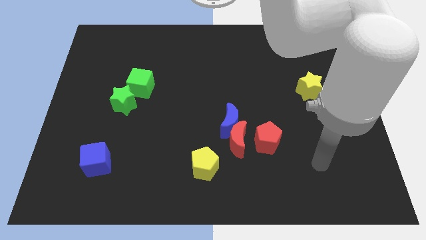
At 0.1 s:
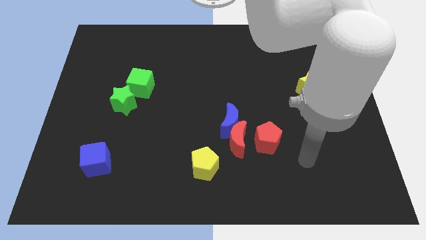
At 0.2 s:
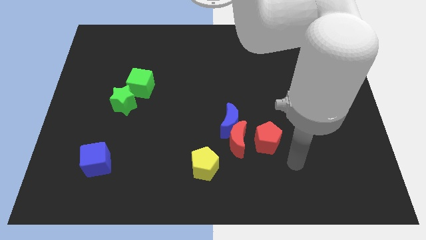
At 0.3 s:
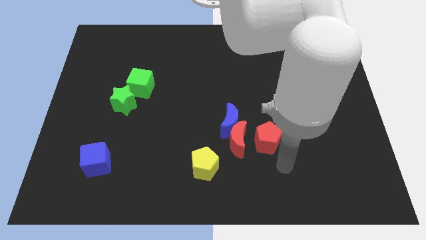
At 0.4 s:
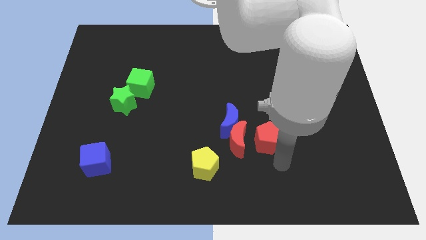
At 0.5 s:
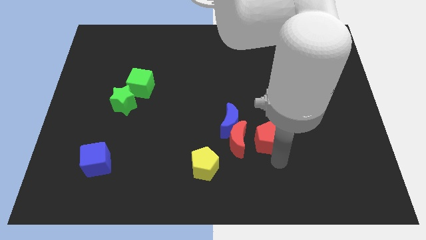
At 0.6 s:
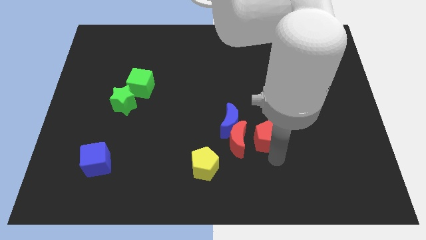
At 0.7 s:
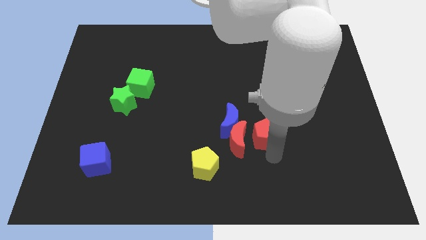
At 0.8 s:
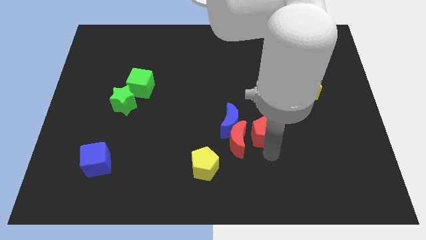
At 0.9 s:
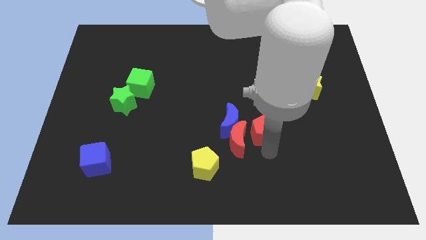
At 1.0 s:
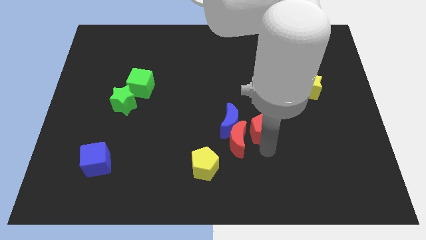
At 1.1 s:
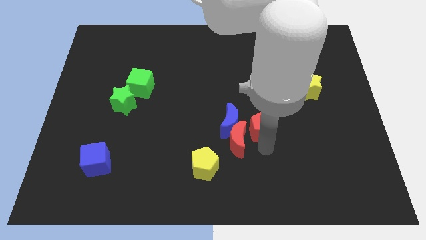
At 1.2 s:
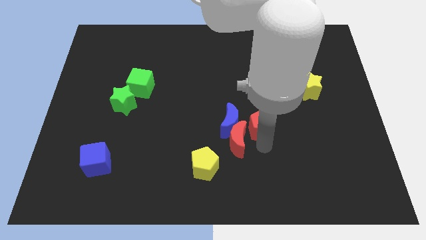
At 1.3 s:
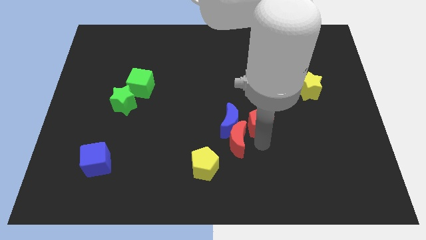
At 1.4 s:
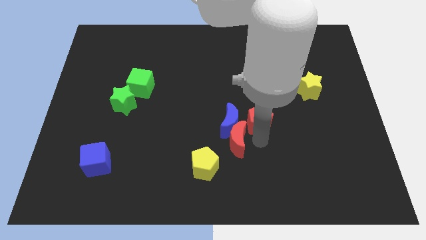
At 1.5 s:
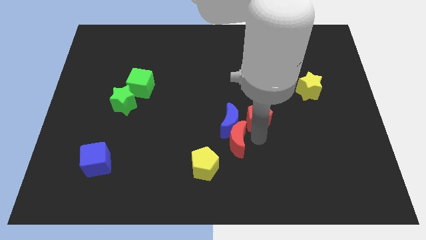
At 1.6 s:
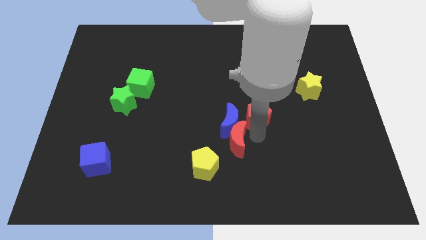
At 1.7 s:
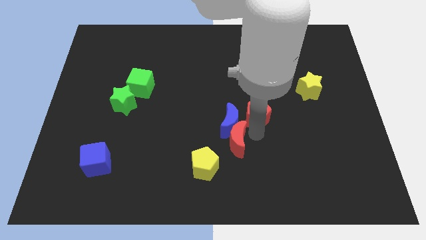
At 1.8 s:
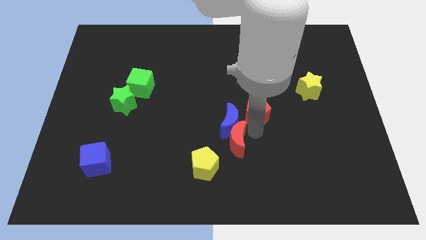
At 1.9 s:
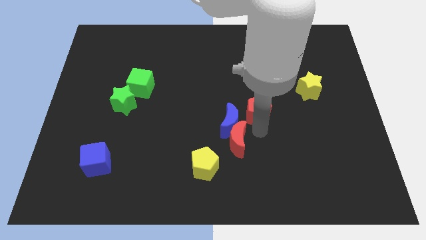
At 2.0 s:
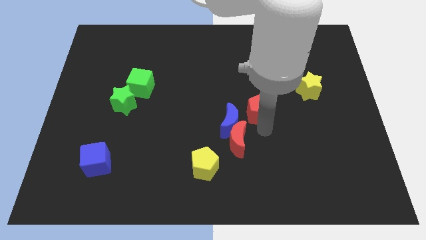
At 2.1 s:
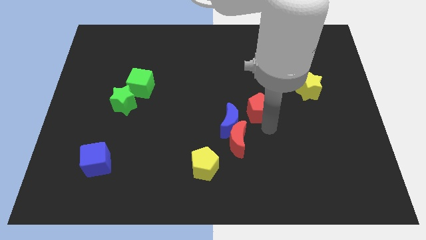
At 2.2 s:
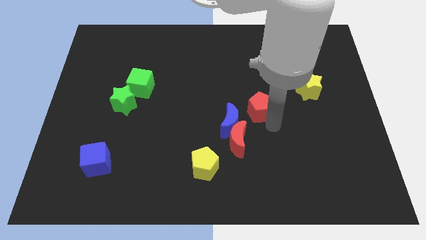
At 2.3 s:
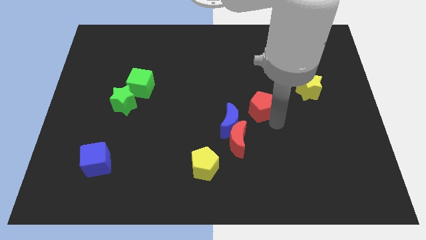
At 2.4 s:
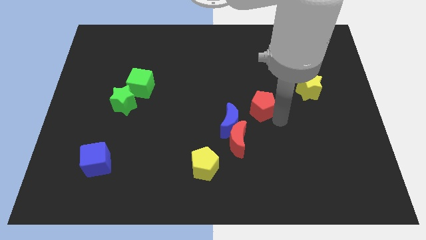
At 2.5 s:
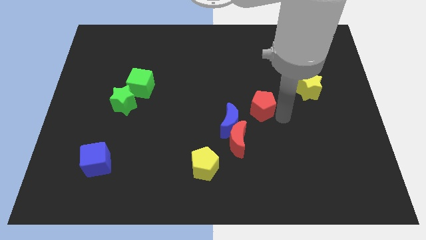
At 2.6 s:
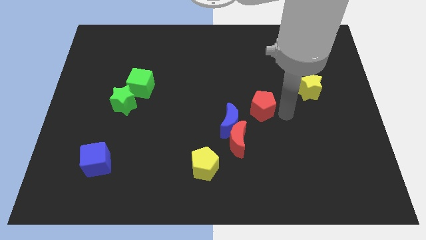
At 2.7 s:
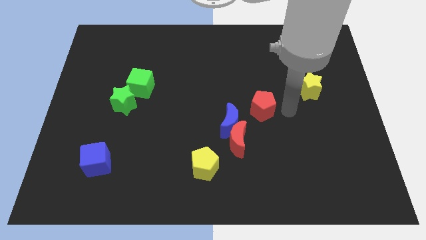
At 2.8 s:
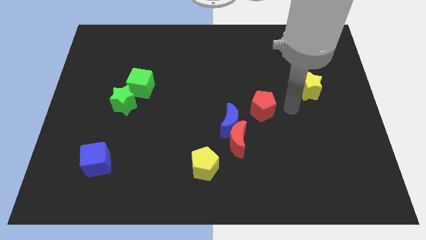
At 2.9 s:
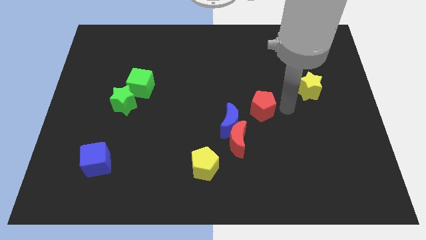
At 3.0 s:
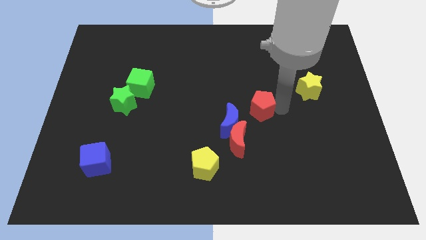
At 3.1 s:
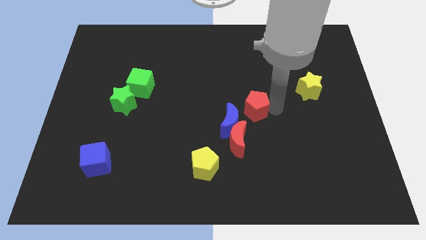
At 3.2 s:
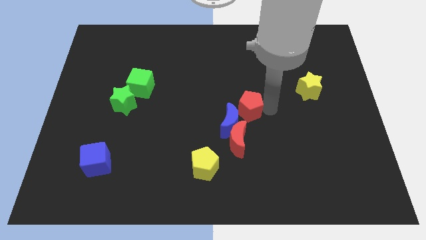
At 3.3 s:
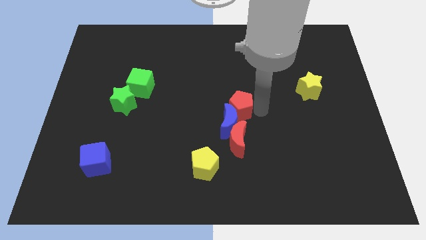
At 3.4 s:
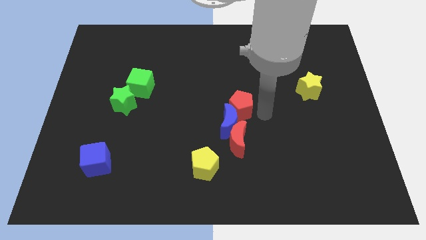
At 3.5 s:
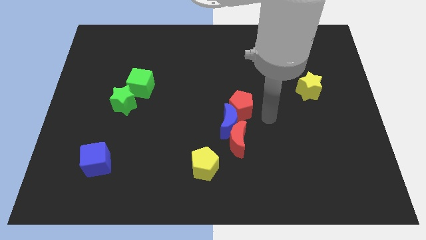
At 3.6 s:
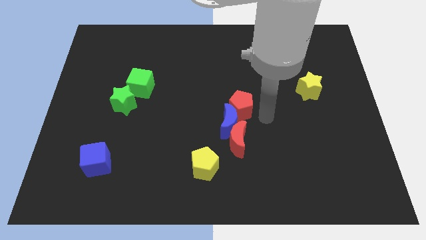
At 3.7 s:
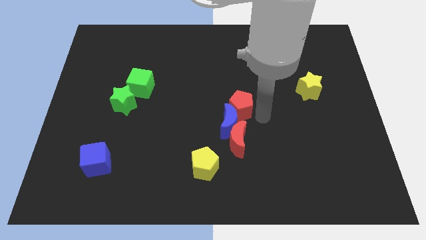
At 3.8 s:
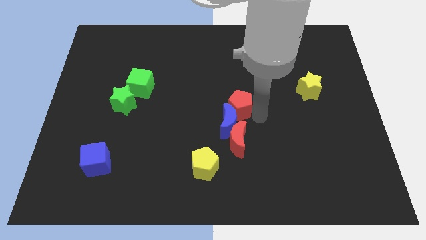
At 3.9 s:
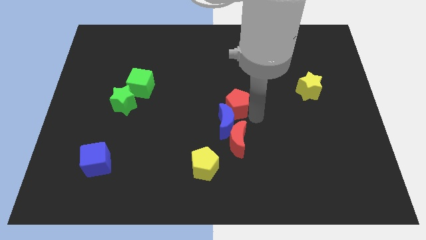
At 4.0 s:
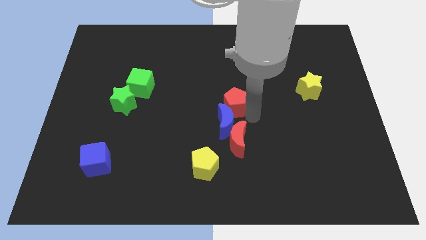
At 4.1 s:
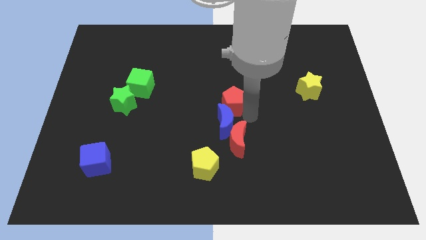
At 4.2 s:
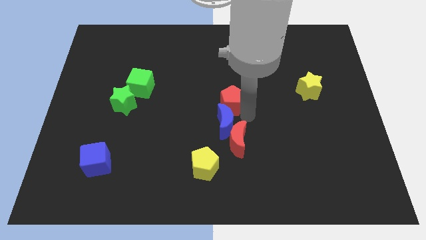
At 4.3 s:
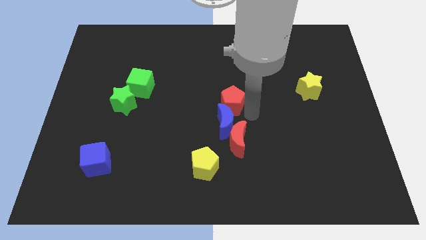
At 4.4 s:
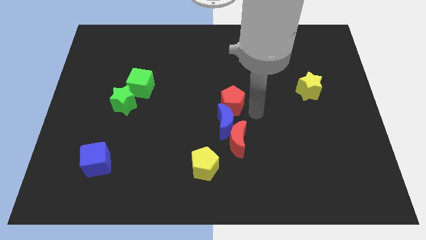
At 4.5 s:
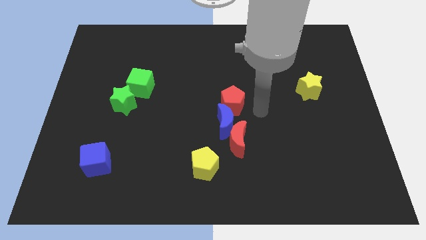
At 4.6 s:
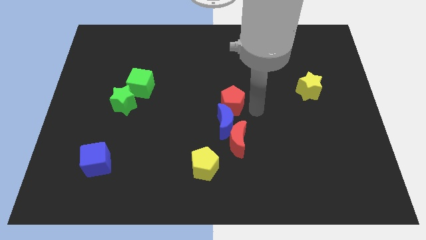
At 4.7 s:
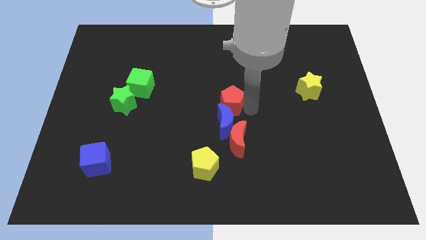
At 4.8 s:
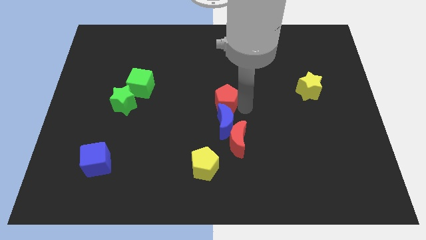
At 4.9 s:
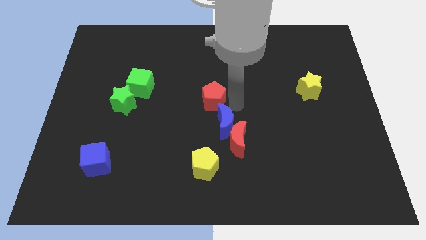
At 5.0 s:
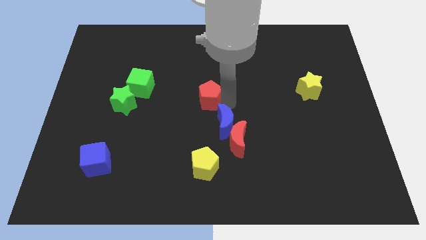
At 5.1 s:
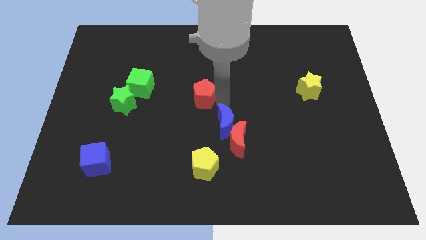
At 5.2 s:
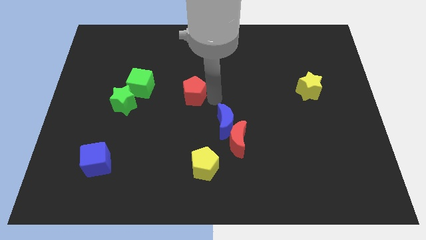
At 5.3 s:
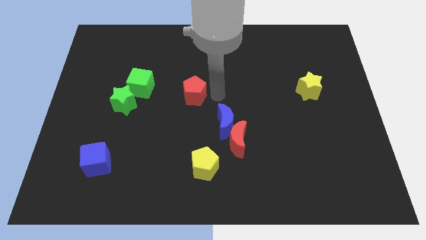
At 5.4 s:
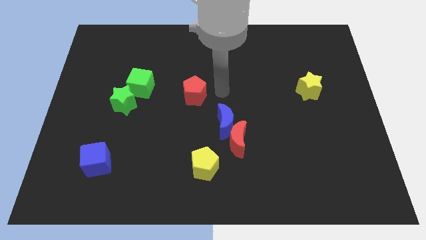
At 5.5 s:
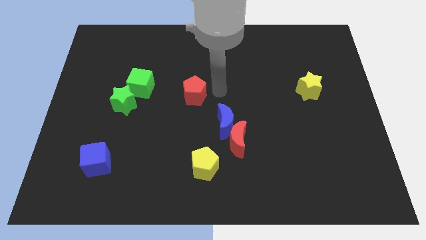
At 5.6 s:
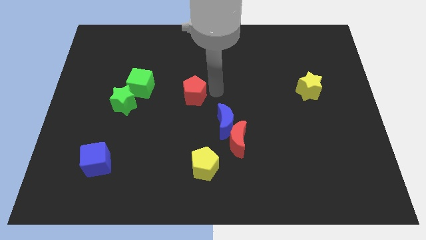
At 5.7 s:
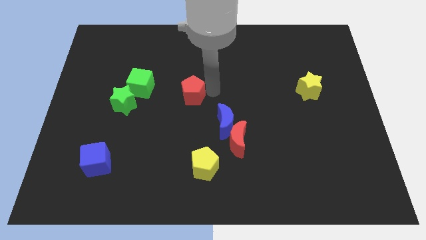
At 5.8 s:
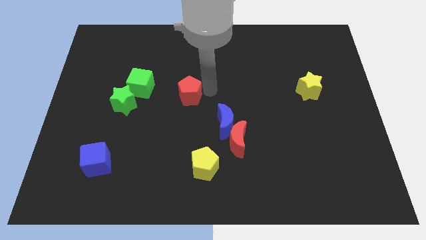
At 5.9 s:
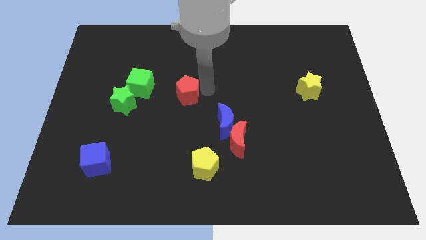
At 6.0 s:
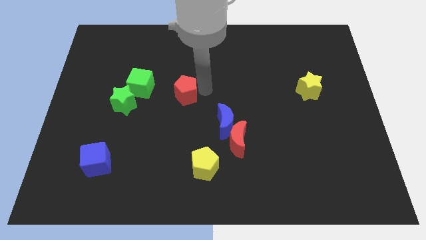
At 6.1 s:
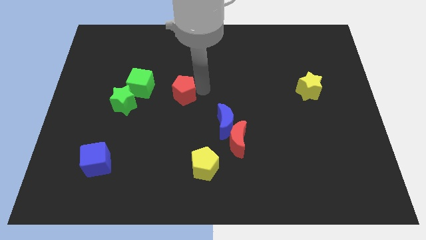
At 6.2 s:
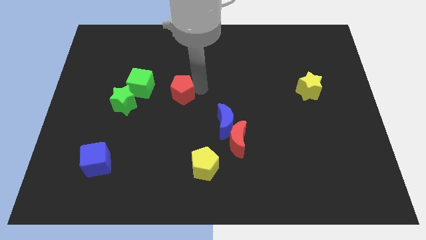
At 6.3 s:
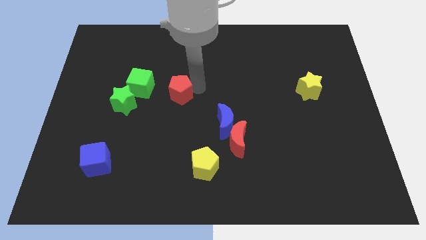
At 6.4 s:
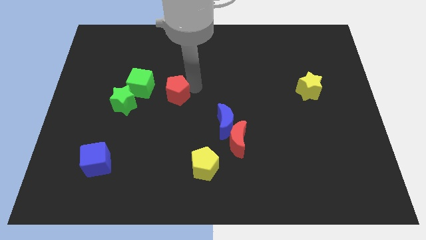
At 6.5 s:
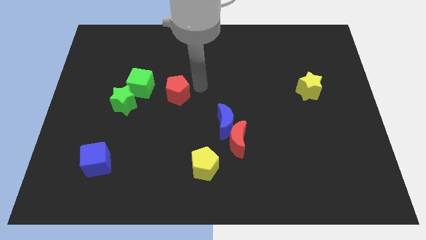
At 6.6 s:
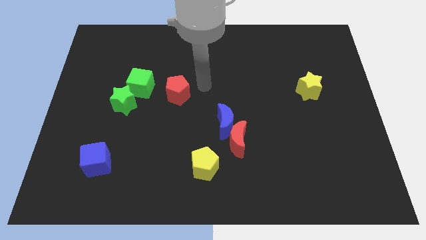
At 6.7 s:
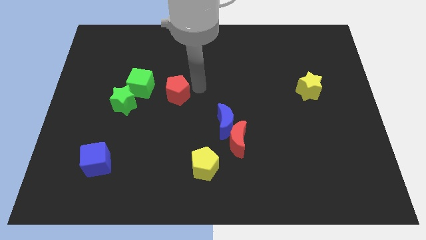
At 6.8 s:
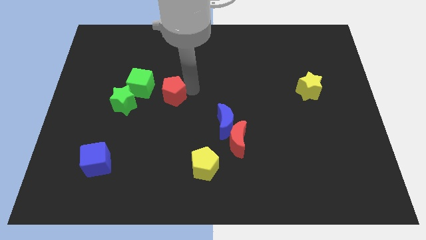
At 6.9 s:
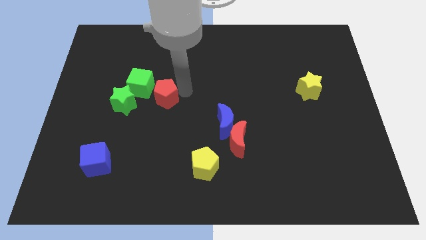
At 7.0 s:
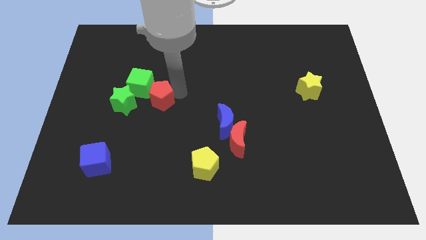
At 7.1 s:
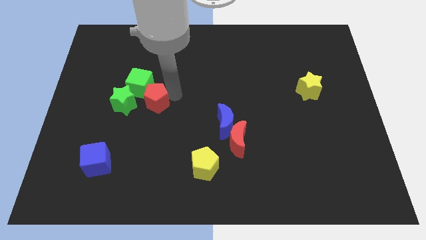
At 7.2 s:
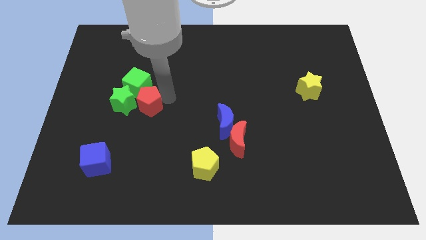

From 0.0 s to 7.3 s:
push the red pentagon next to the green star
